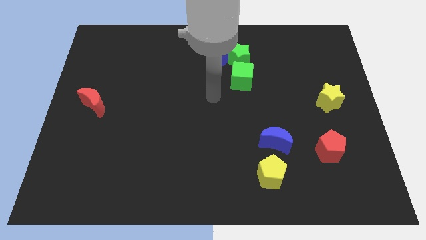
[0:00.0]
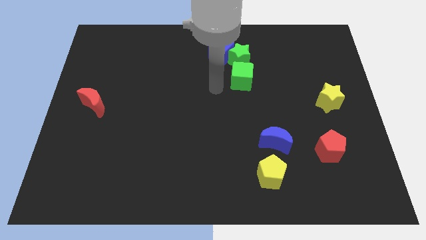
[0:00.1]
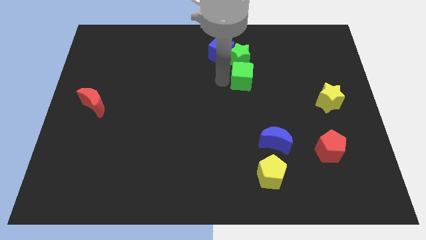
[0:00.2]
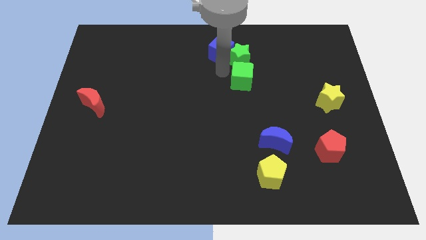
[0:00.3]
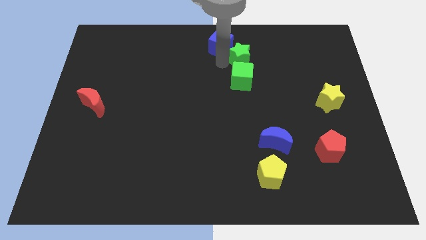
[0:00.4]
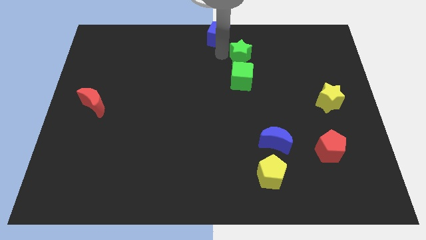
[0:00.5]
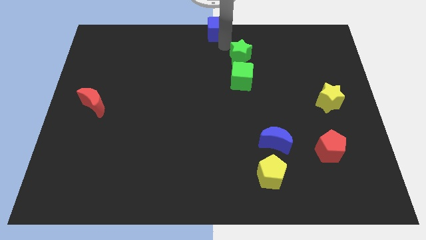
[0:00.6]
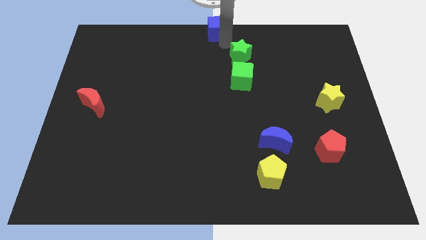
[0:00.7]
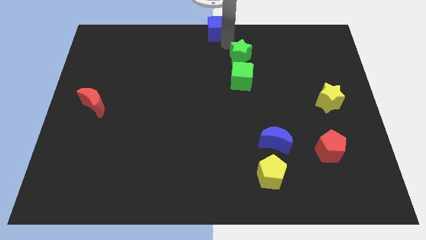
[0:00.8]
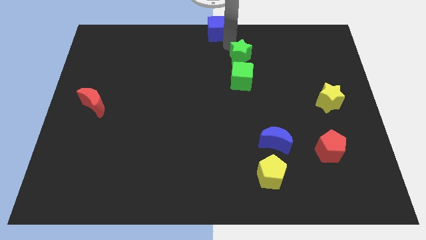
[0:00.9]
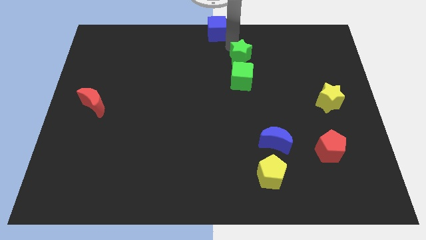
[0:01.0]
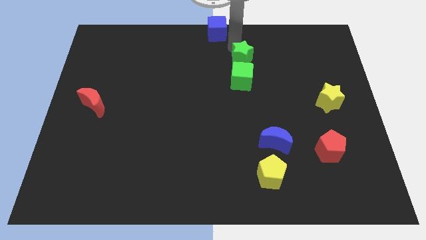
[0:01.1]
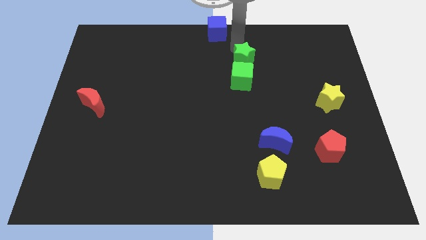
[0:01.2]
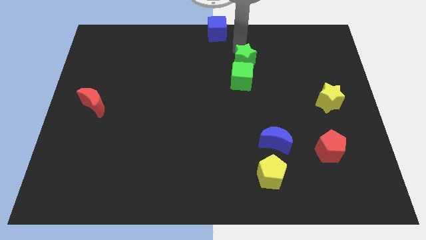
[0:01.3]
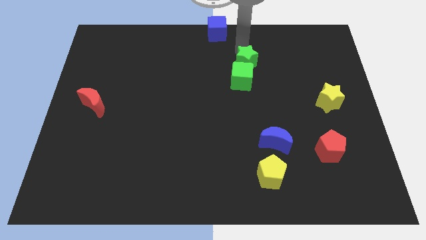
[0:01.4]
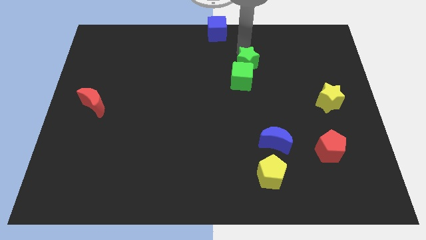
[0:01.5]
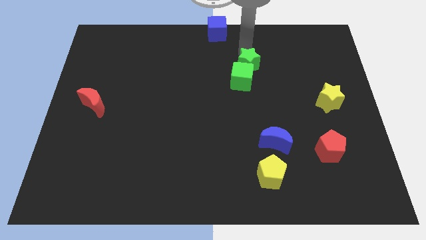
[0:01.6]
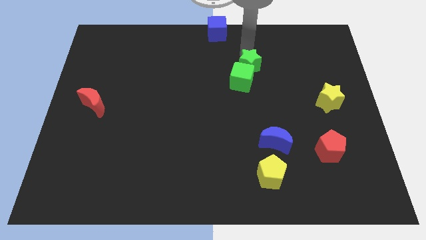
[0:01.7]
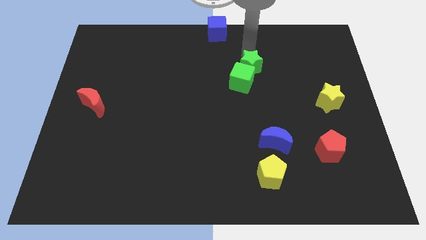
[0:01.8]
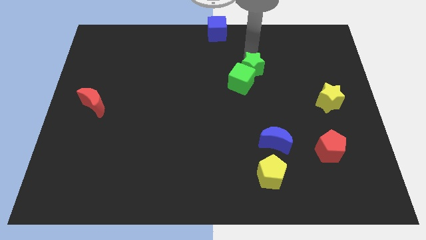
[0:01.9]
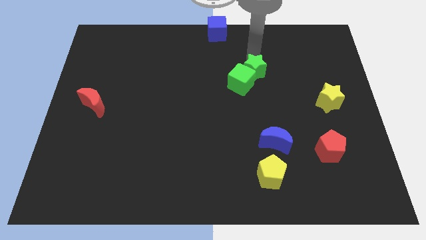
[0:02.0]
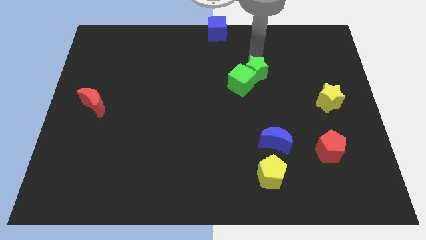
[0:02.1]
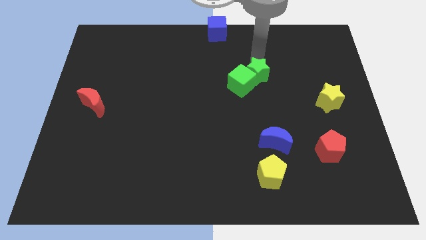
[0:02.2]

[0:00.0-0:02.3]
slide the green star downwards and then right a bit

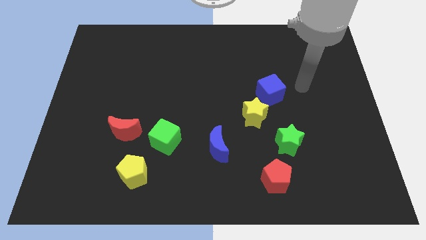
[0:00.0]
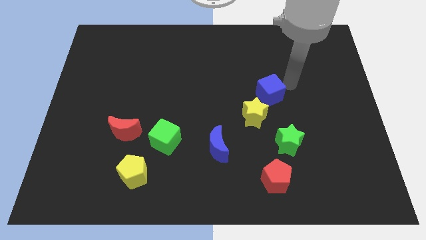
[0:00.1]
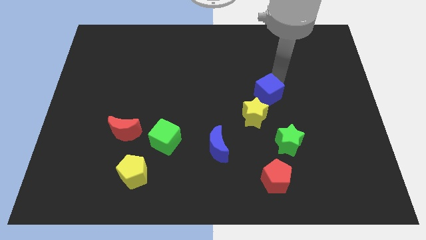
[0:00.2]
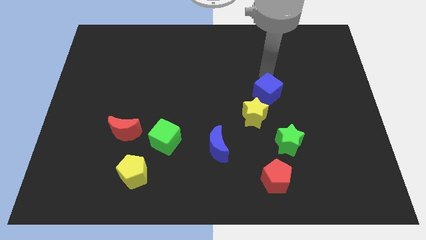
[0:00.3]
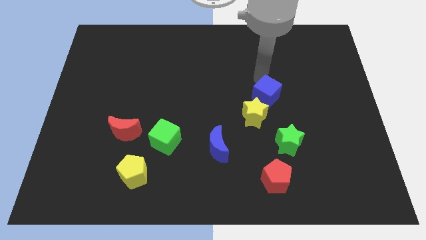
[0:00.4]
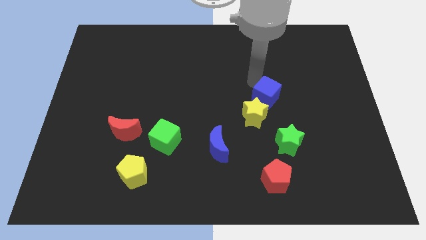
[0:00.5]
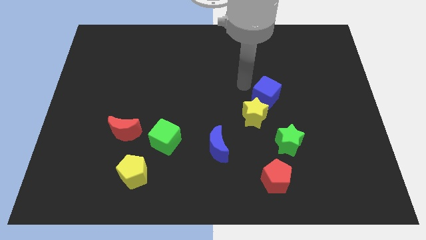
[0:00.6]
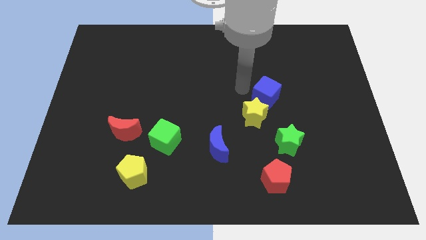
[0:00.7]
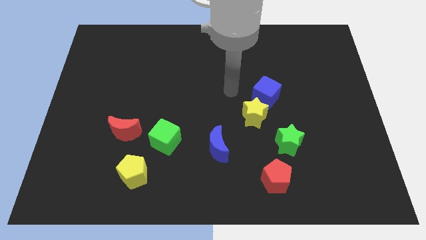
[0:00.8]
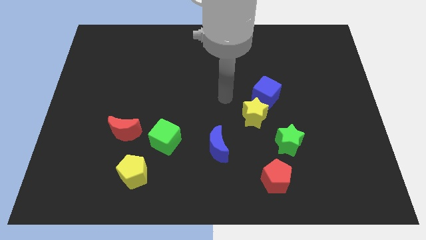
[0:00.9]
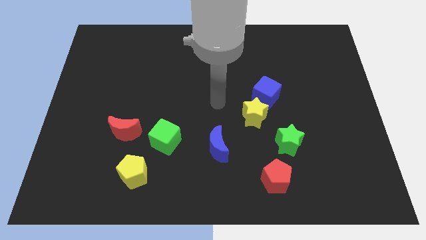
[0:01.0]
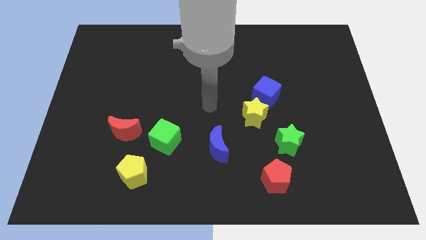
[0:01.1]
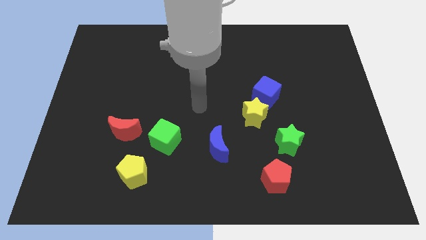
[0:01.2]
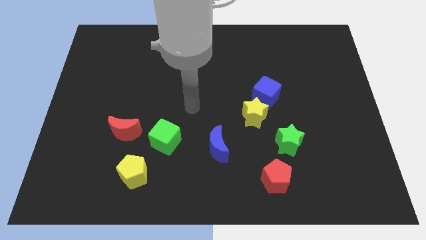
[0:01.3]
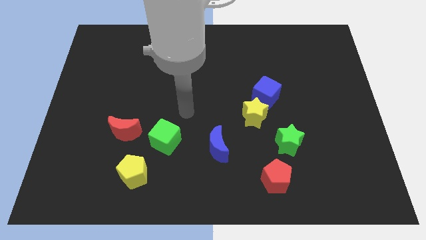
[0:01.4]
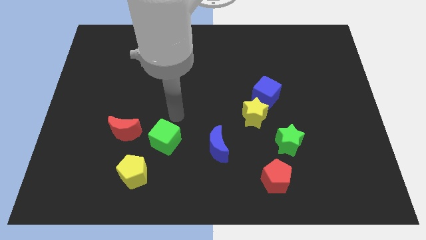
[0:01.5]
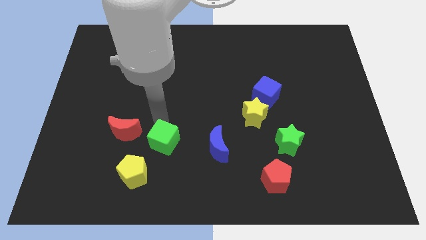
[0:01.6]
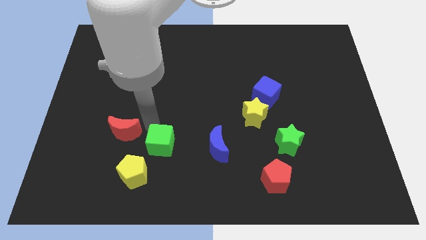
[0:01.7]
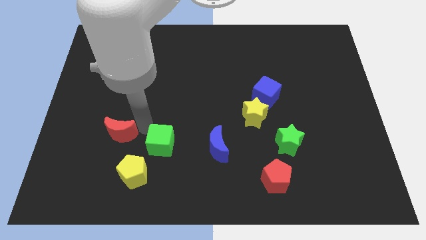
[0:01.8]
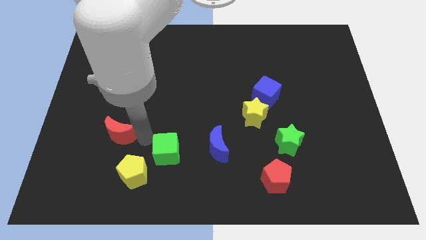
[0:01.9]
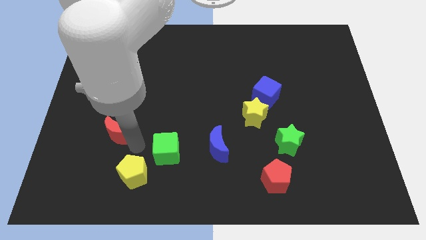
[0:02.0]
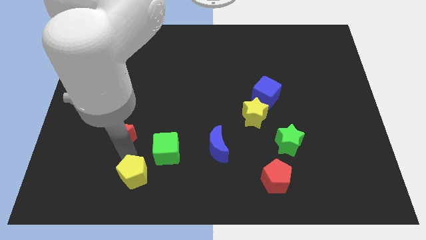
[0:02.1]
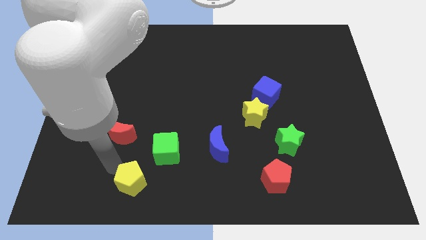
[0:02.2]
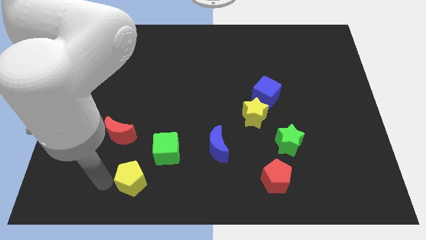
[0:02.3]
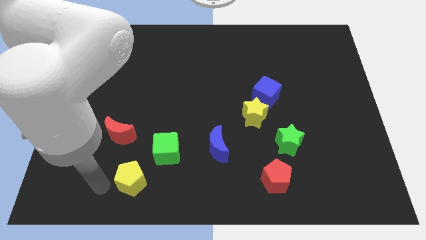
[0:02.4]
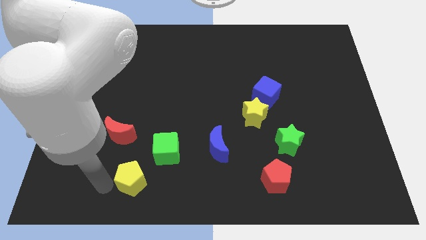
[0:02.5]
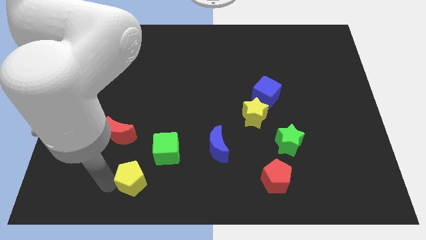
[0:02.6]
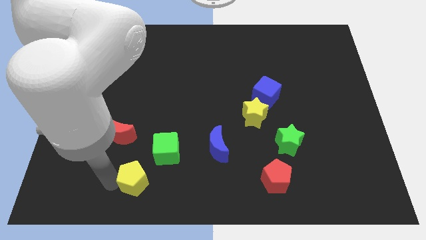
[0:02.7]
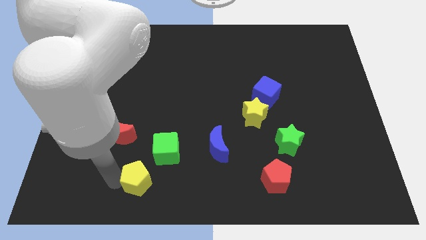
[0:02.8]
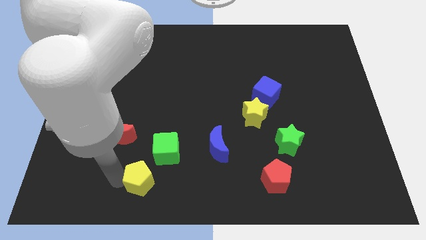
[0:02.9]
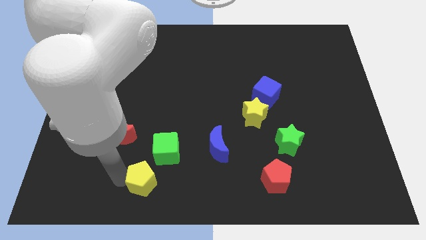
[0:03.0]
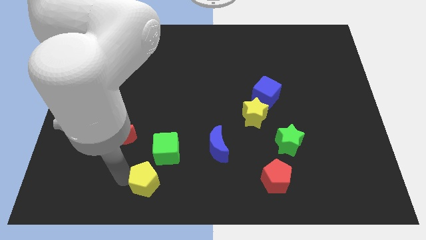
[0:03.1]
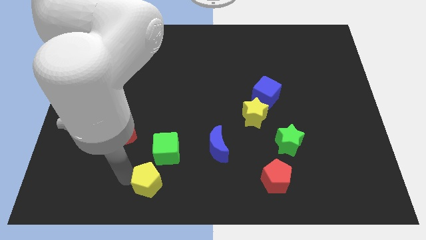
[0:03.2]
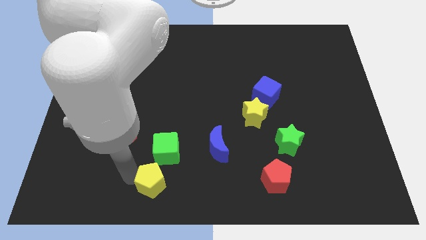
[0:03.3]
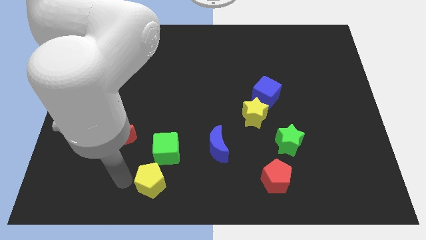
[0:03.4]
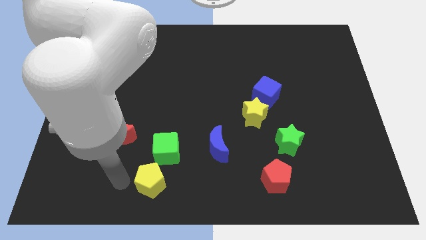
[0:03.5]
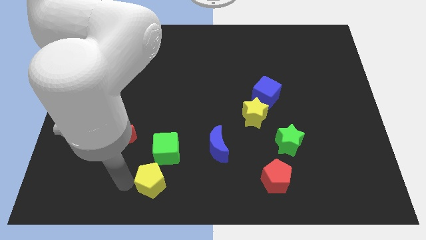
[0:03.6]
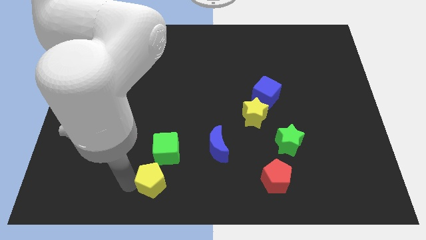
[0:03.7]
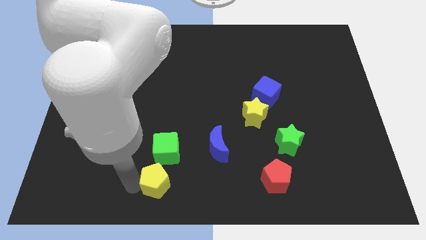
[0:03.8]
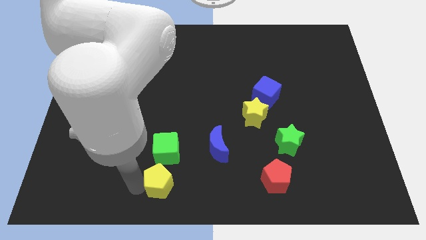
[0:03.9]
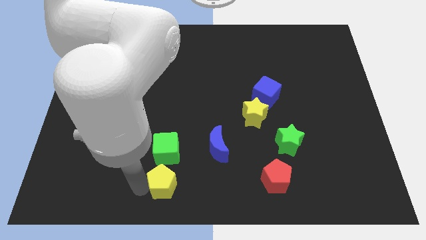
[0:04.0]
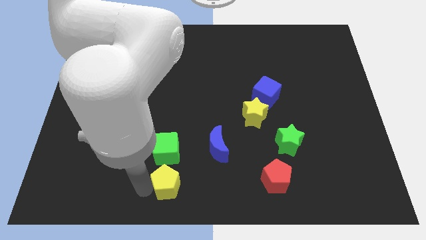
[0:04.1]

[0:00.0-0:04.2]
slide the yellow pentagon to the right slightly

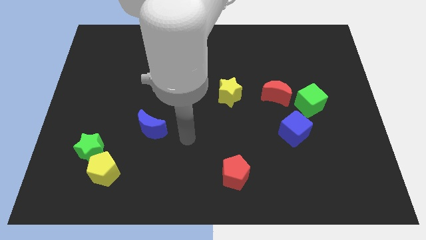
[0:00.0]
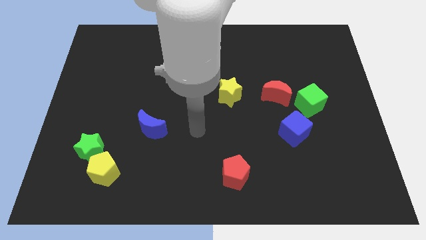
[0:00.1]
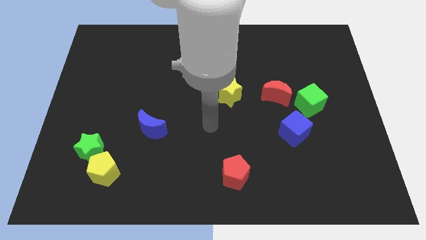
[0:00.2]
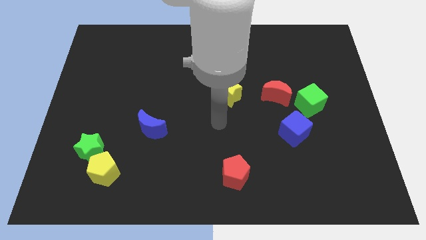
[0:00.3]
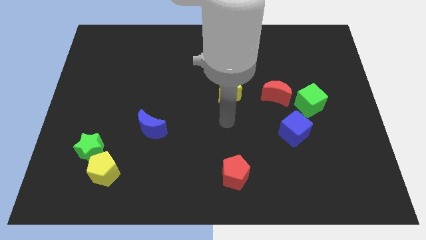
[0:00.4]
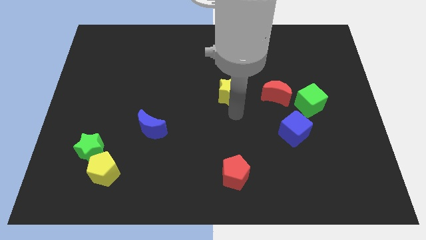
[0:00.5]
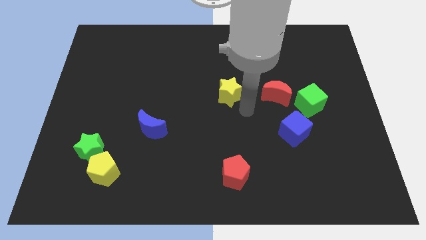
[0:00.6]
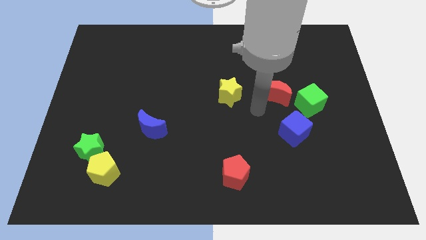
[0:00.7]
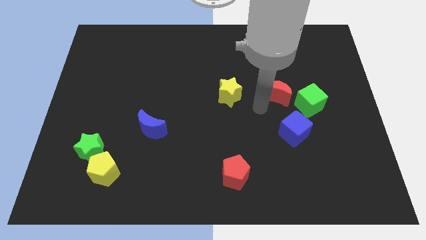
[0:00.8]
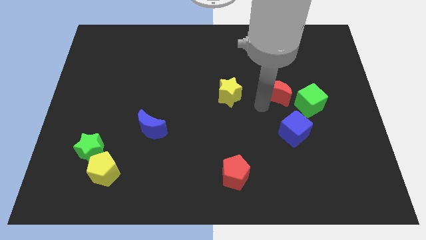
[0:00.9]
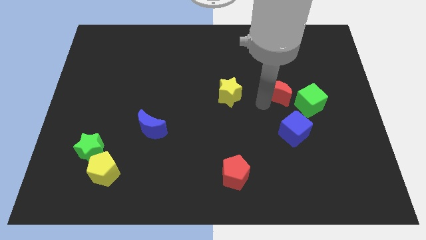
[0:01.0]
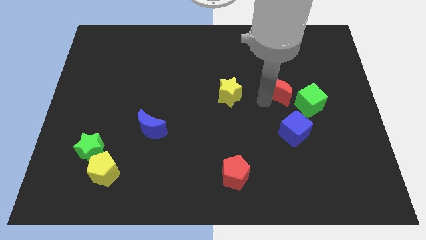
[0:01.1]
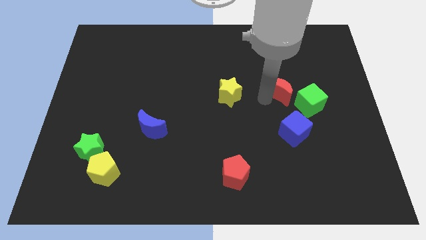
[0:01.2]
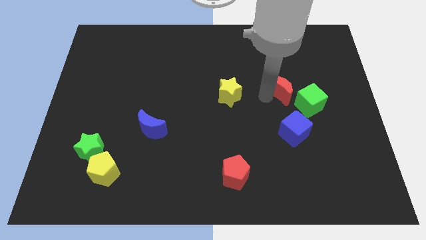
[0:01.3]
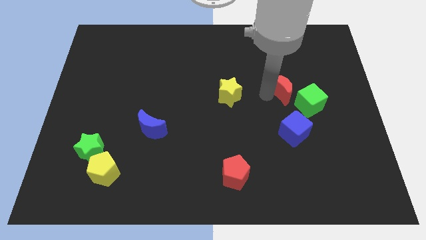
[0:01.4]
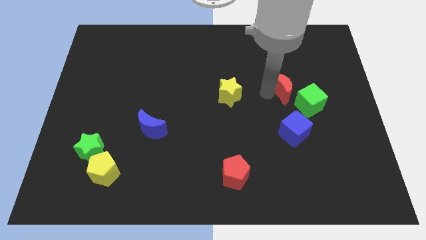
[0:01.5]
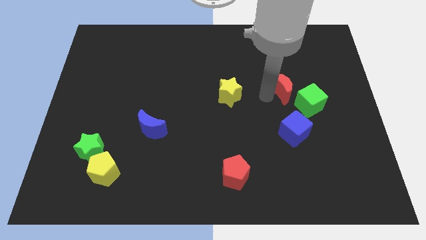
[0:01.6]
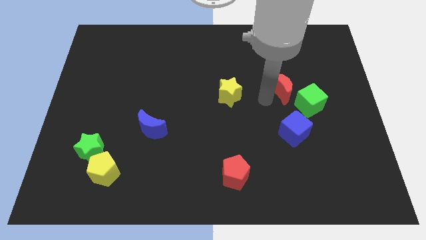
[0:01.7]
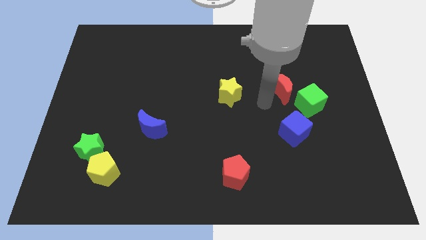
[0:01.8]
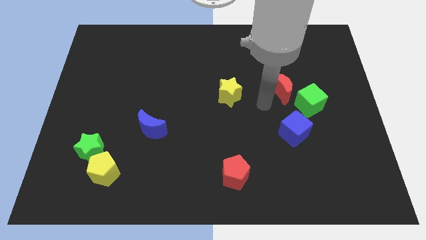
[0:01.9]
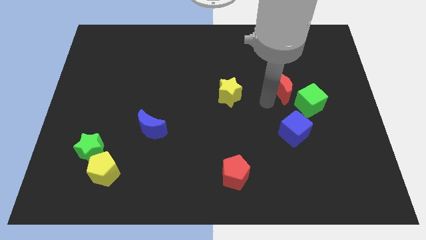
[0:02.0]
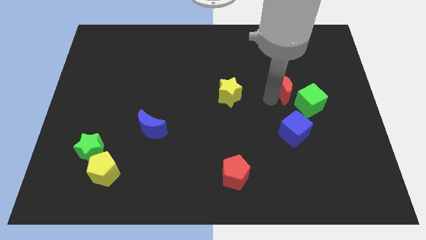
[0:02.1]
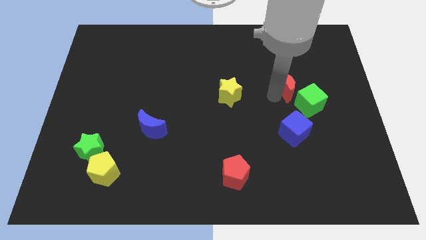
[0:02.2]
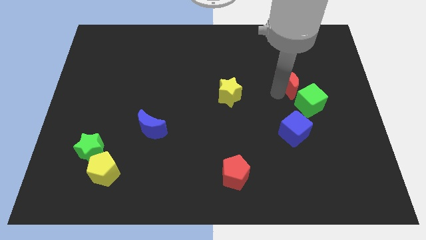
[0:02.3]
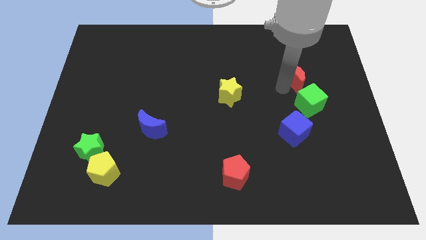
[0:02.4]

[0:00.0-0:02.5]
slide the red moon a little bit up and right diagonally
